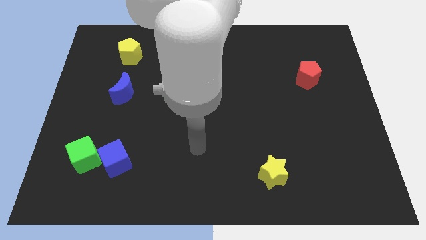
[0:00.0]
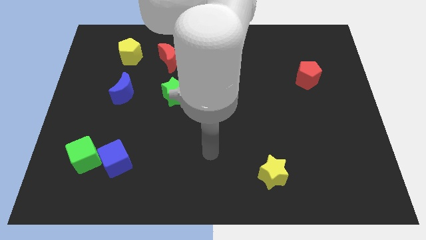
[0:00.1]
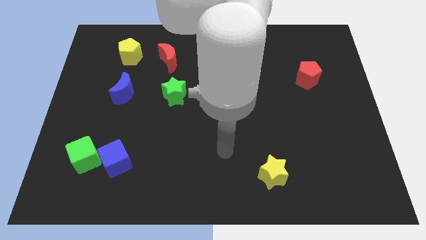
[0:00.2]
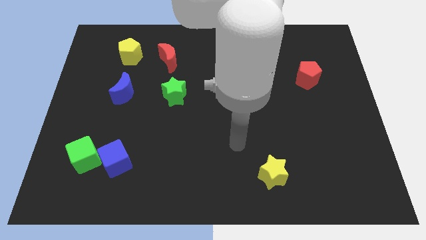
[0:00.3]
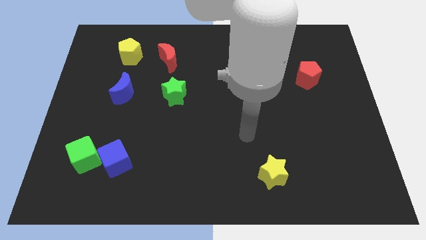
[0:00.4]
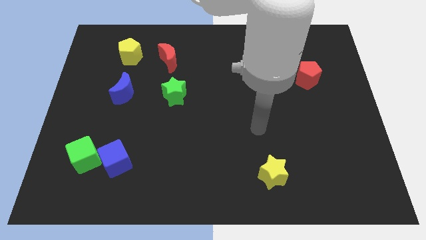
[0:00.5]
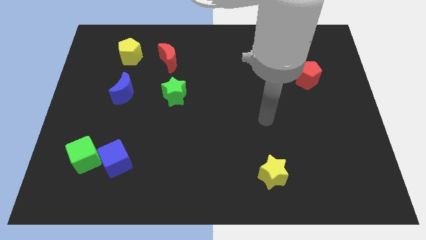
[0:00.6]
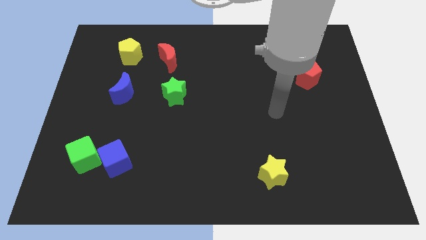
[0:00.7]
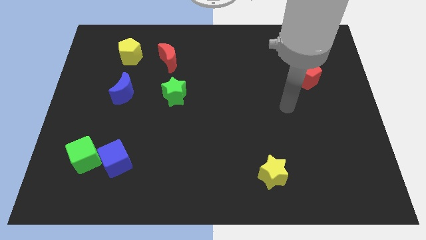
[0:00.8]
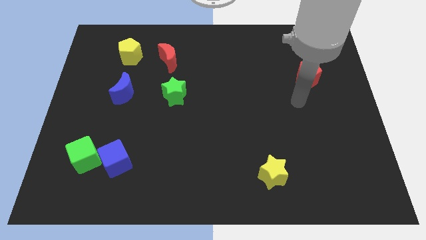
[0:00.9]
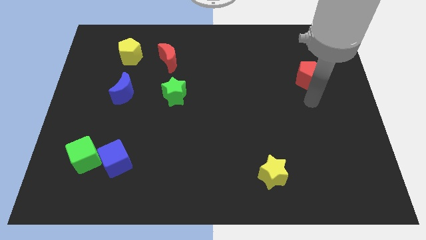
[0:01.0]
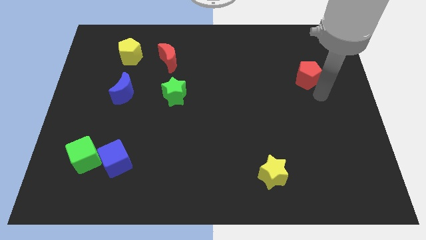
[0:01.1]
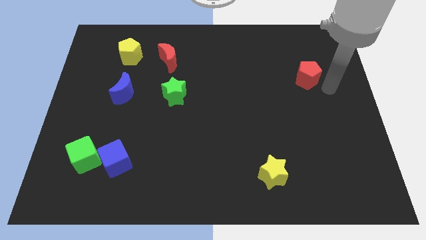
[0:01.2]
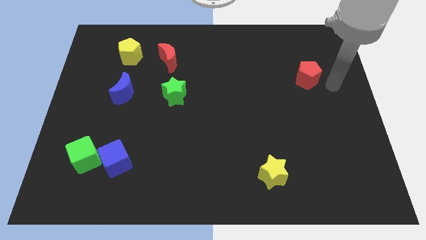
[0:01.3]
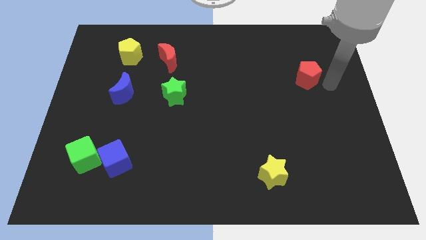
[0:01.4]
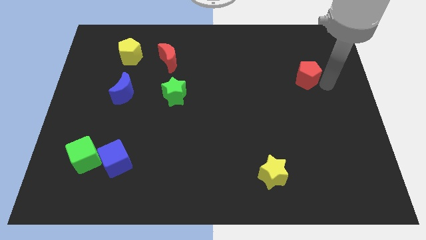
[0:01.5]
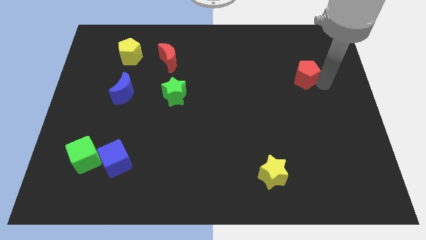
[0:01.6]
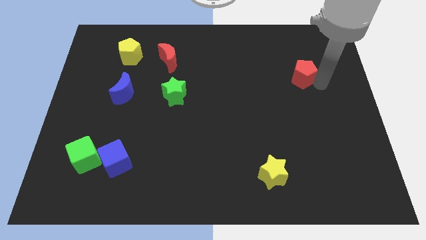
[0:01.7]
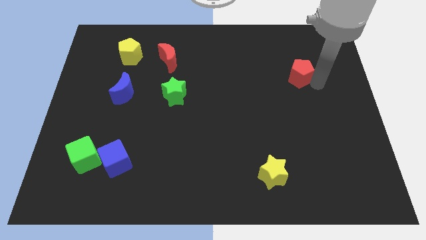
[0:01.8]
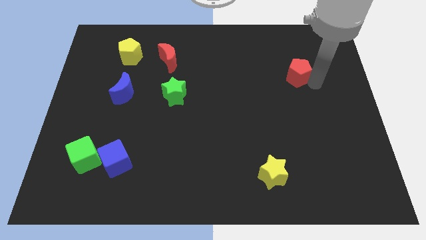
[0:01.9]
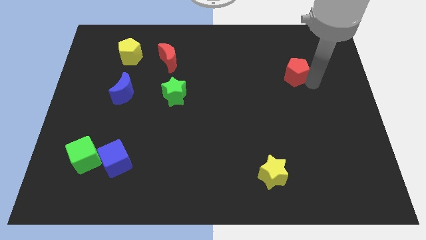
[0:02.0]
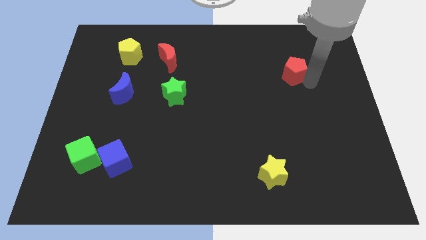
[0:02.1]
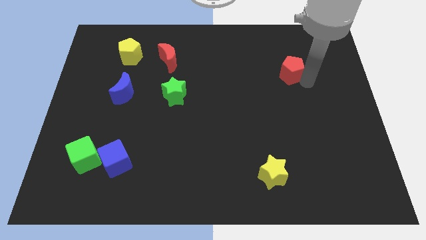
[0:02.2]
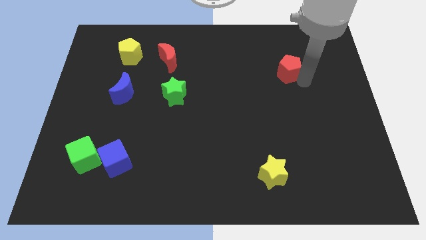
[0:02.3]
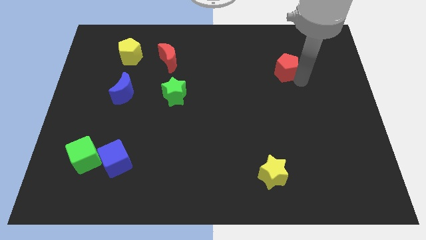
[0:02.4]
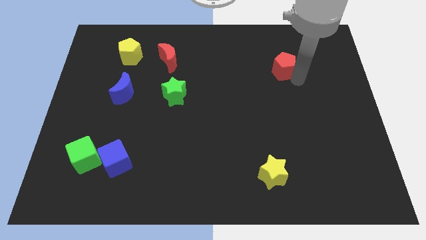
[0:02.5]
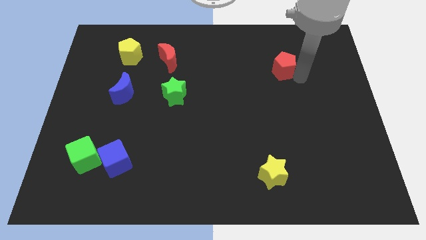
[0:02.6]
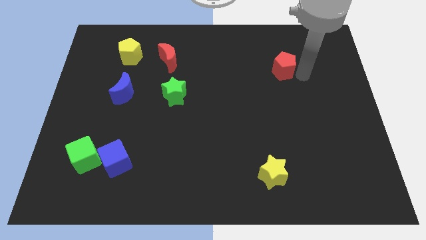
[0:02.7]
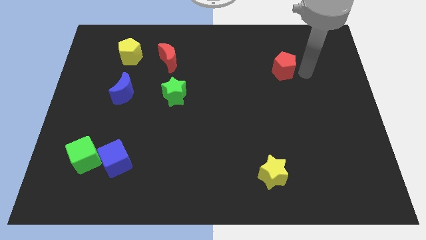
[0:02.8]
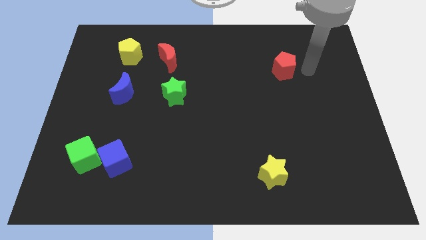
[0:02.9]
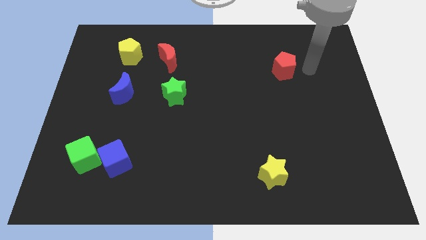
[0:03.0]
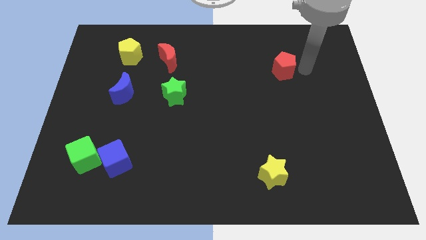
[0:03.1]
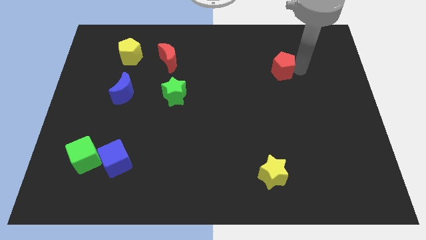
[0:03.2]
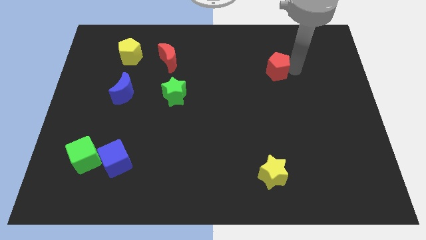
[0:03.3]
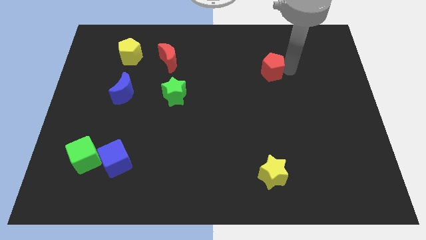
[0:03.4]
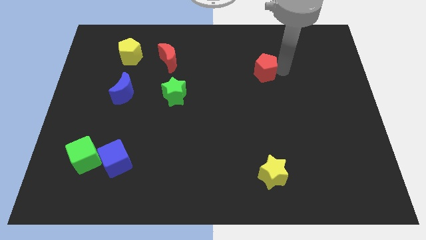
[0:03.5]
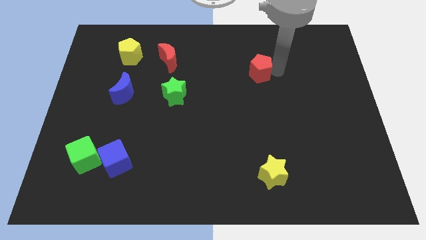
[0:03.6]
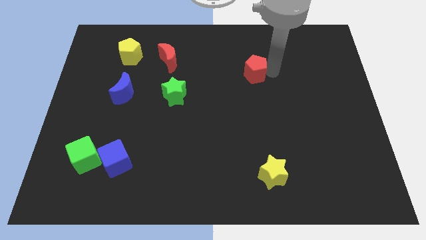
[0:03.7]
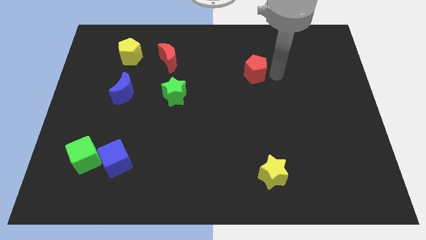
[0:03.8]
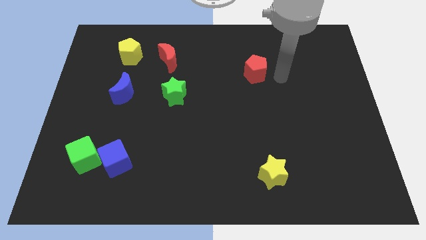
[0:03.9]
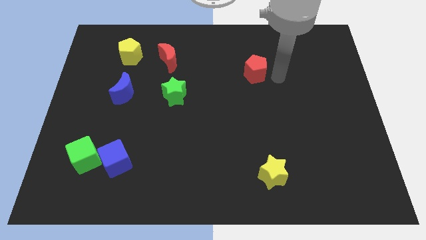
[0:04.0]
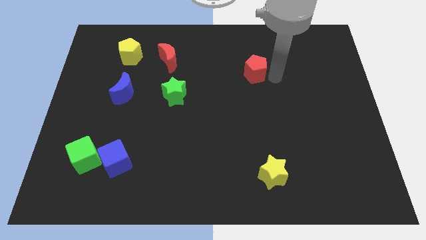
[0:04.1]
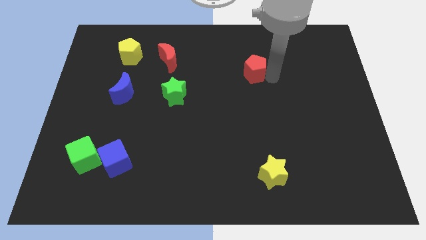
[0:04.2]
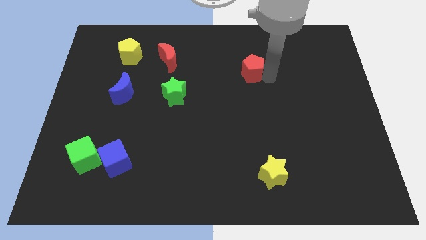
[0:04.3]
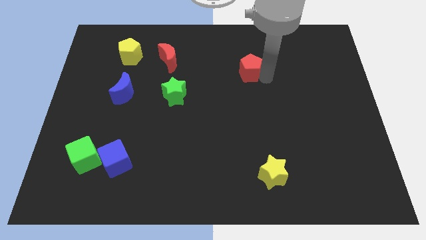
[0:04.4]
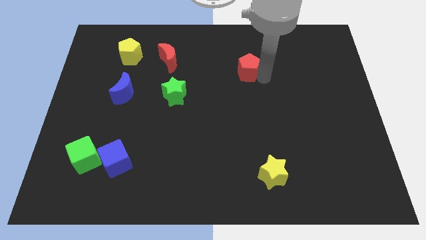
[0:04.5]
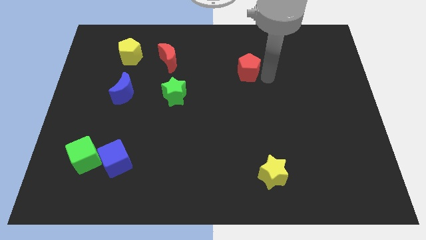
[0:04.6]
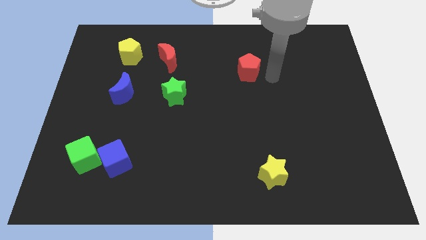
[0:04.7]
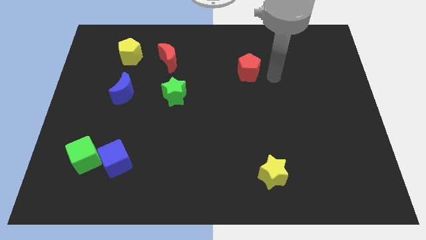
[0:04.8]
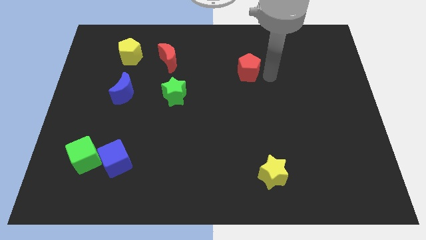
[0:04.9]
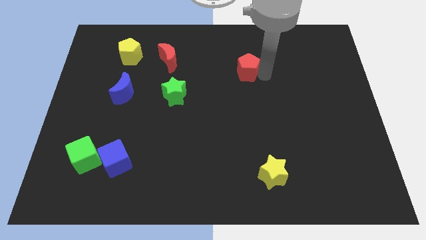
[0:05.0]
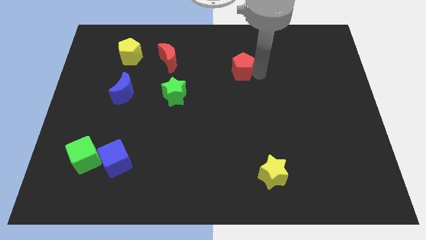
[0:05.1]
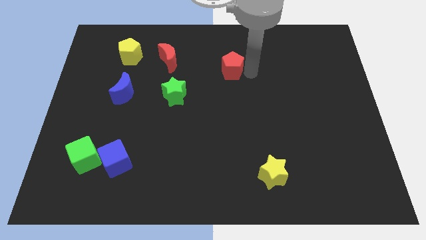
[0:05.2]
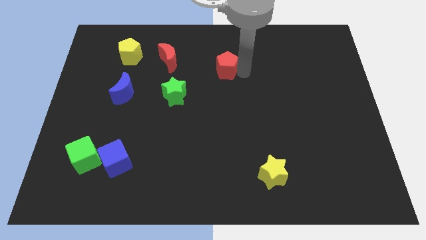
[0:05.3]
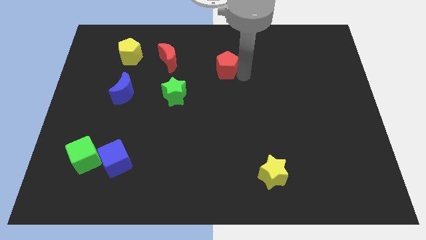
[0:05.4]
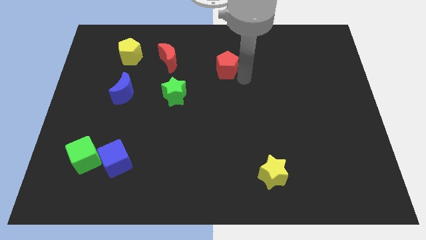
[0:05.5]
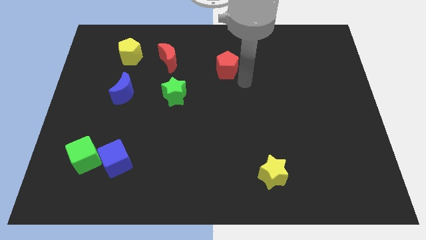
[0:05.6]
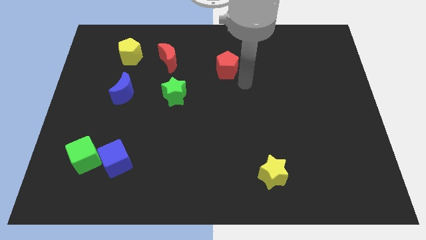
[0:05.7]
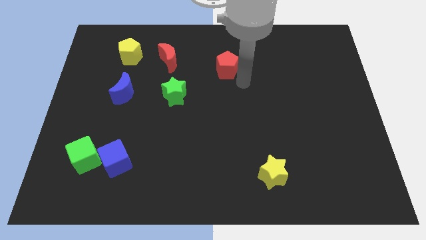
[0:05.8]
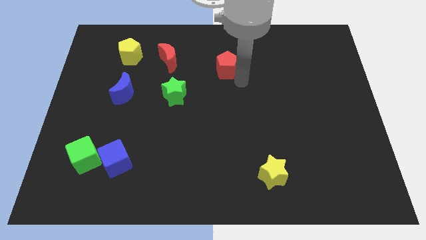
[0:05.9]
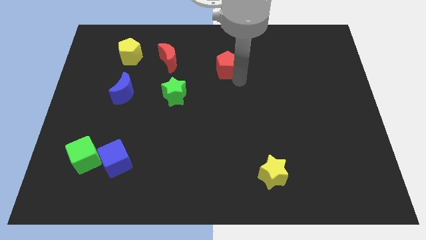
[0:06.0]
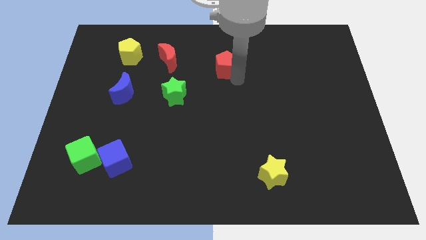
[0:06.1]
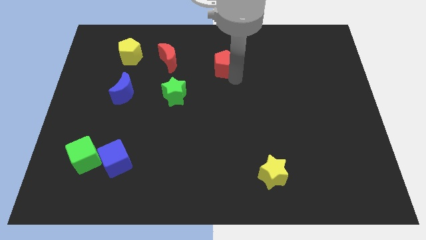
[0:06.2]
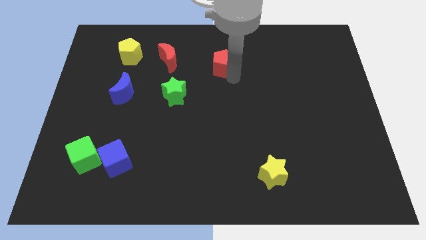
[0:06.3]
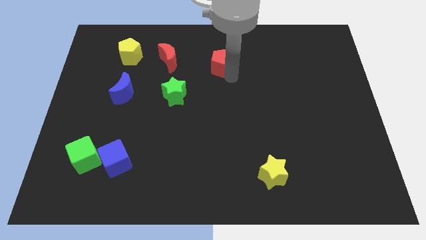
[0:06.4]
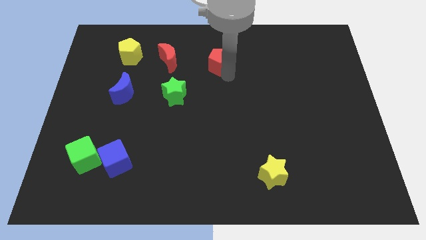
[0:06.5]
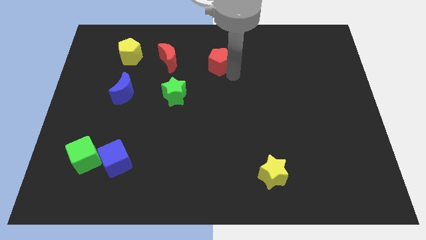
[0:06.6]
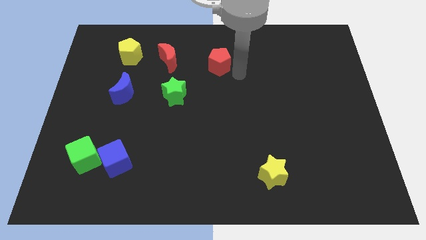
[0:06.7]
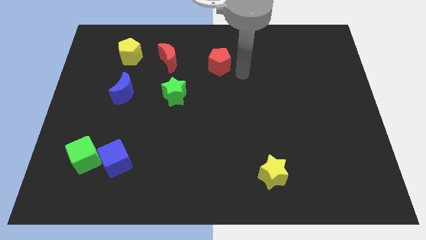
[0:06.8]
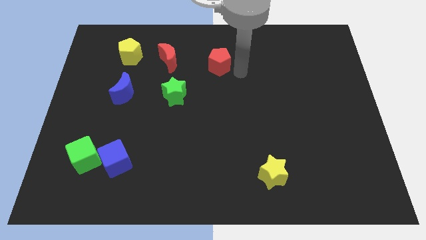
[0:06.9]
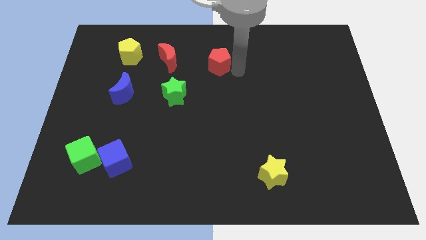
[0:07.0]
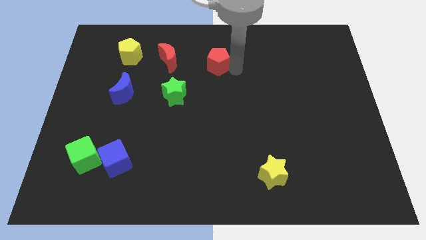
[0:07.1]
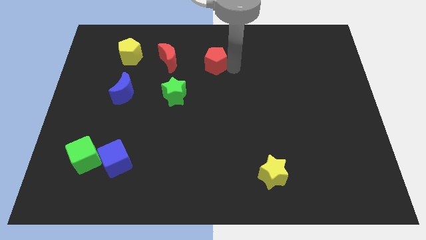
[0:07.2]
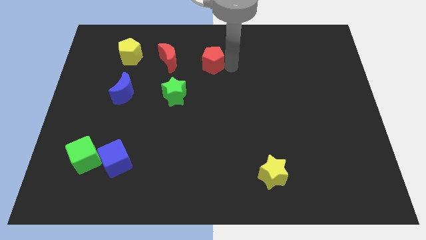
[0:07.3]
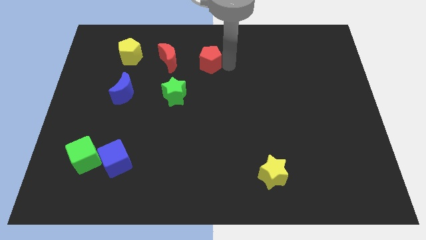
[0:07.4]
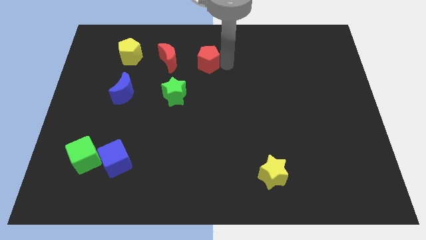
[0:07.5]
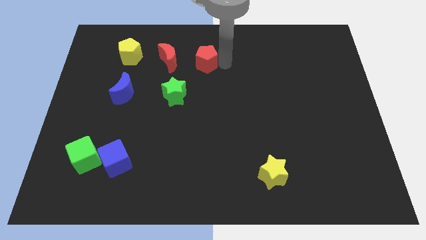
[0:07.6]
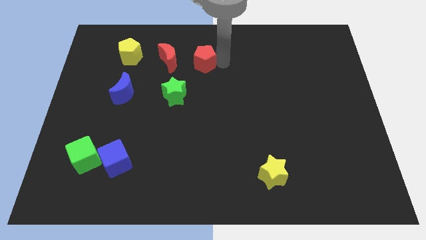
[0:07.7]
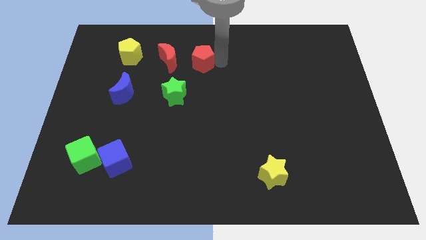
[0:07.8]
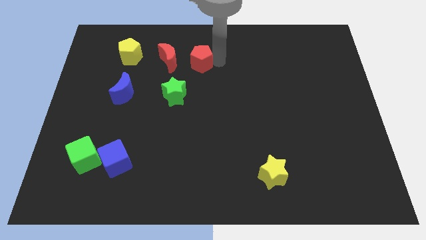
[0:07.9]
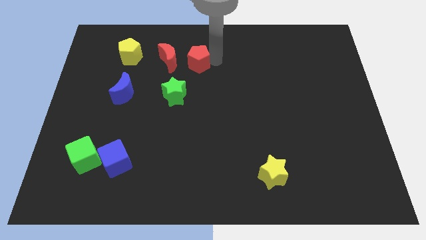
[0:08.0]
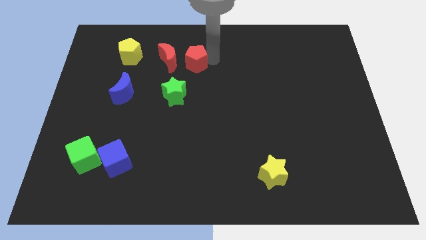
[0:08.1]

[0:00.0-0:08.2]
put the red pentagon to the top of the green star
